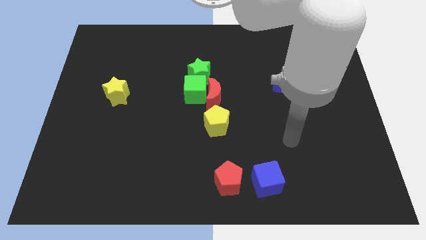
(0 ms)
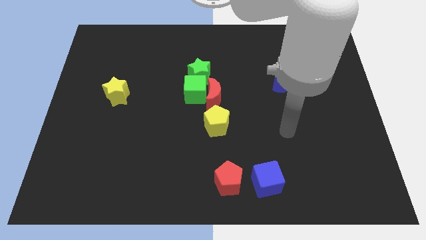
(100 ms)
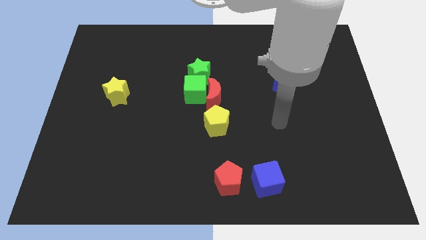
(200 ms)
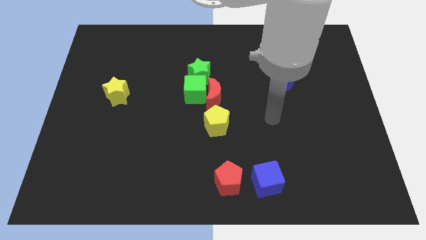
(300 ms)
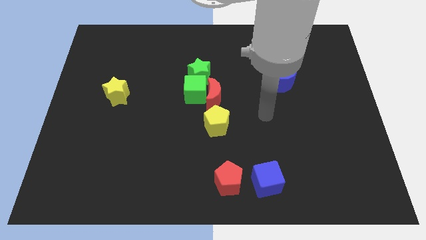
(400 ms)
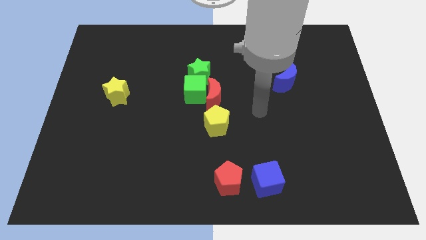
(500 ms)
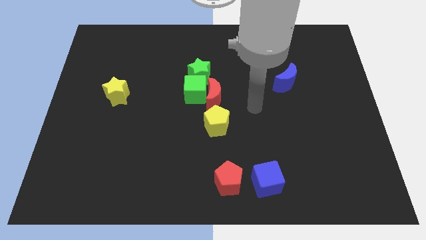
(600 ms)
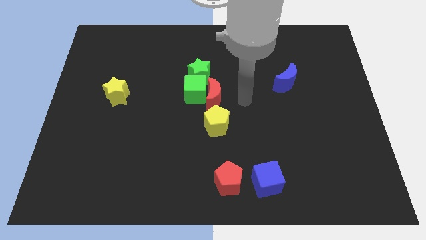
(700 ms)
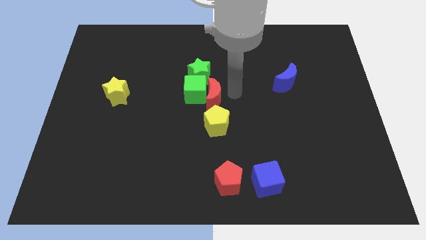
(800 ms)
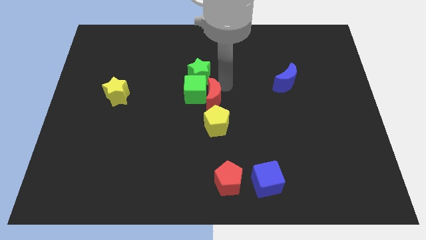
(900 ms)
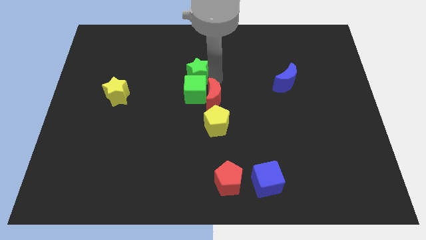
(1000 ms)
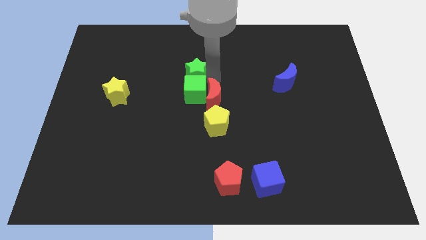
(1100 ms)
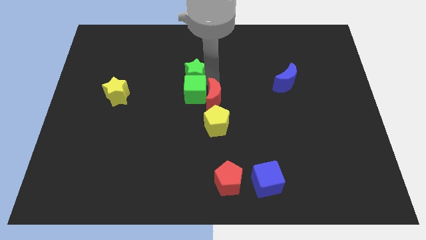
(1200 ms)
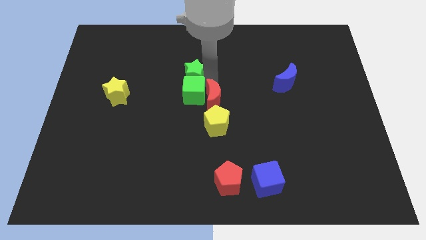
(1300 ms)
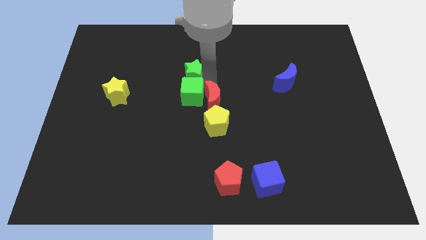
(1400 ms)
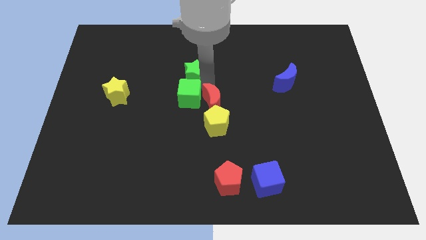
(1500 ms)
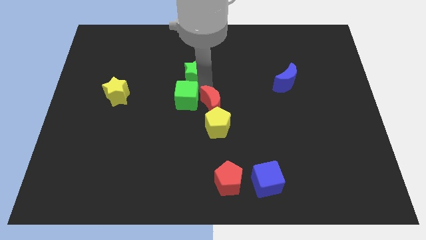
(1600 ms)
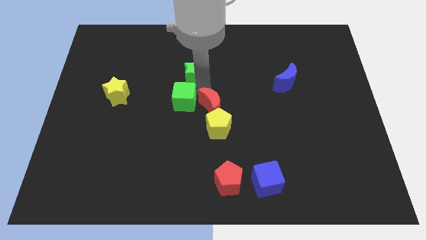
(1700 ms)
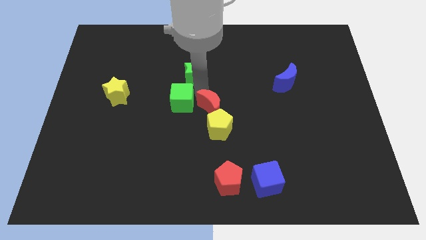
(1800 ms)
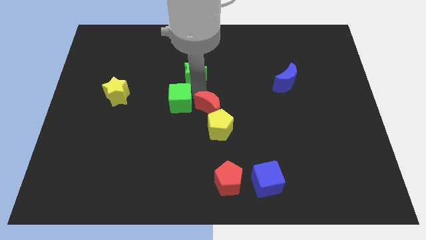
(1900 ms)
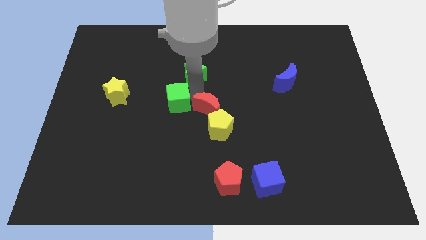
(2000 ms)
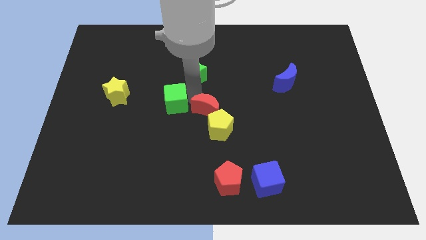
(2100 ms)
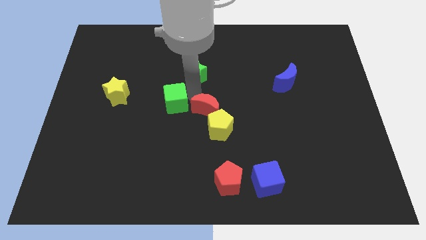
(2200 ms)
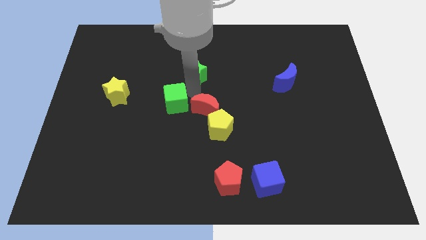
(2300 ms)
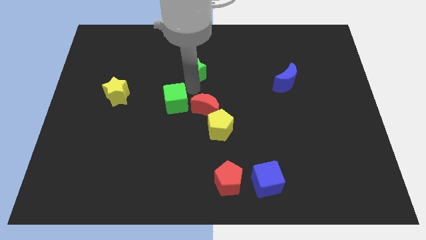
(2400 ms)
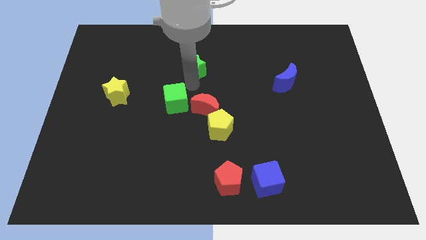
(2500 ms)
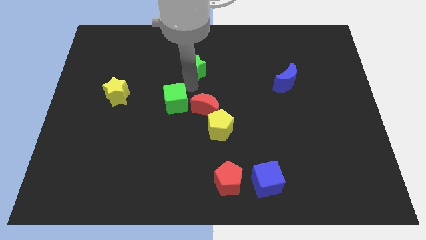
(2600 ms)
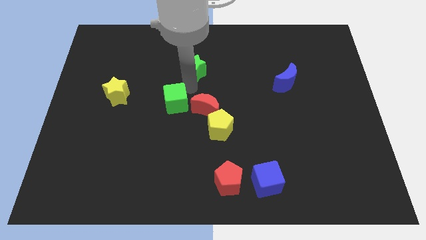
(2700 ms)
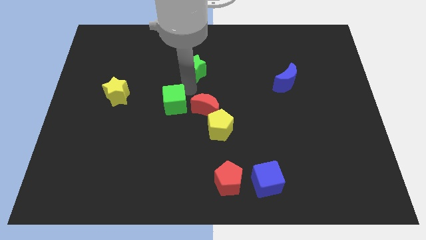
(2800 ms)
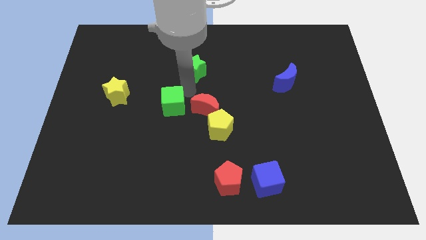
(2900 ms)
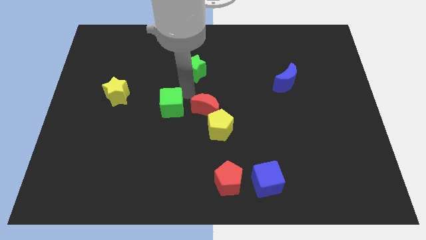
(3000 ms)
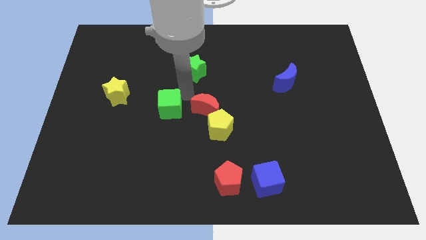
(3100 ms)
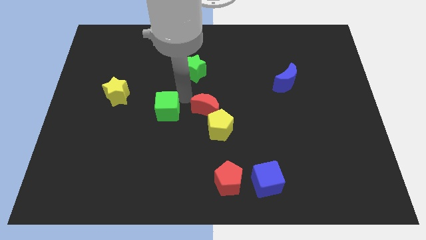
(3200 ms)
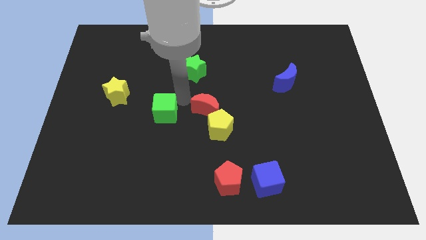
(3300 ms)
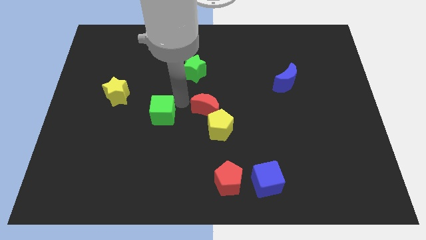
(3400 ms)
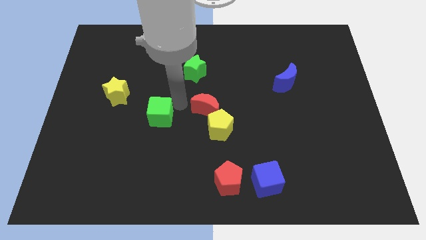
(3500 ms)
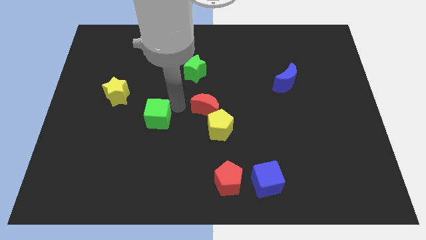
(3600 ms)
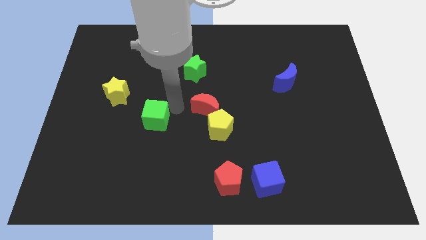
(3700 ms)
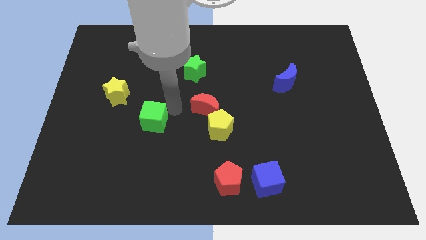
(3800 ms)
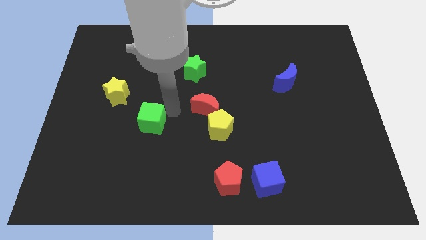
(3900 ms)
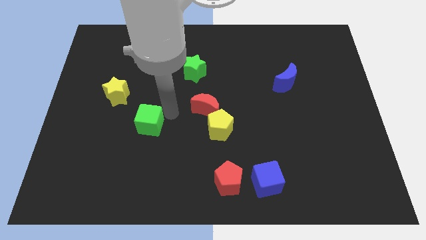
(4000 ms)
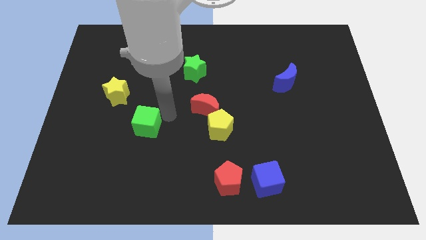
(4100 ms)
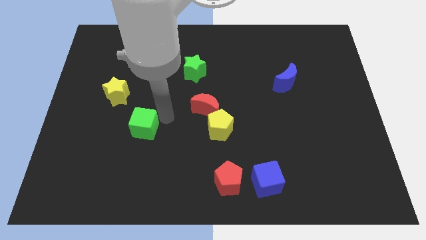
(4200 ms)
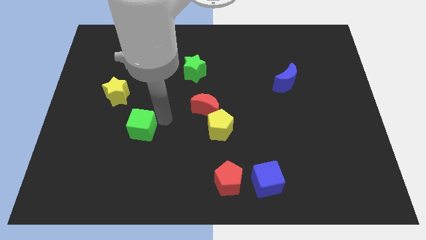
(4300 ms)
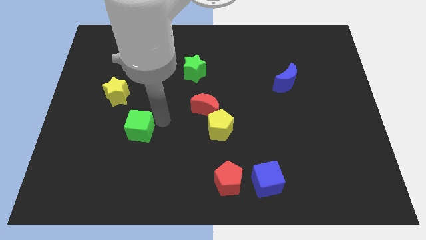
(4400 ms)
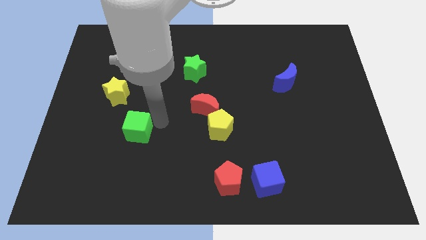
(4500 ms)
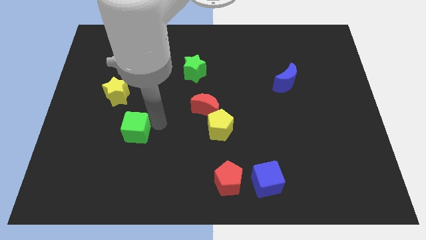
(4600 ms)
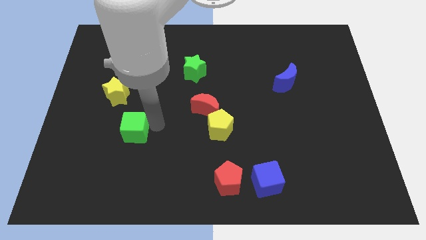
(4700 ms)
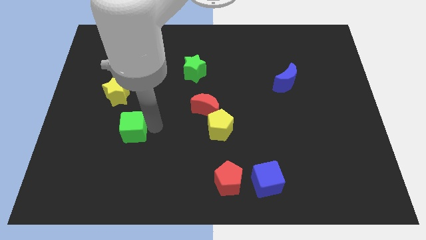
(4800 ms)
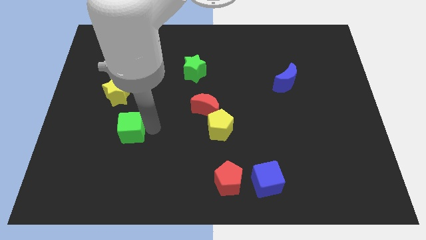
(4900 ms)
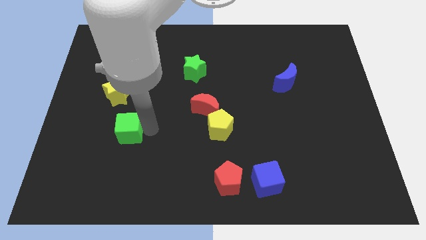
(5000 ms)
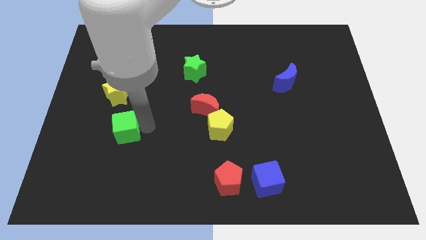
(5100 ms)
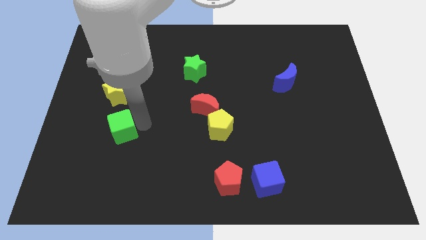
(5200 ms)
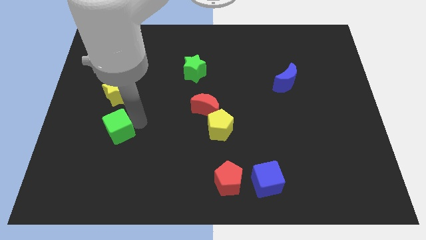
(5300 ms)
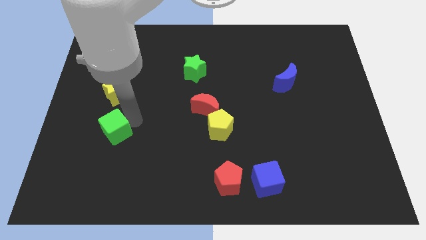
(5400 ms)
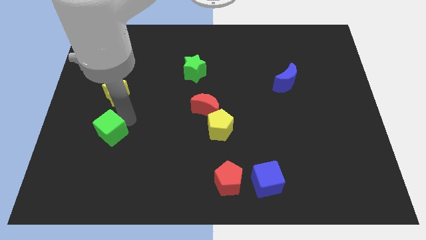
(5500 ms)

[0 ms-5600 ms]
move the green cube downwards and left diagonally

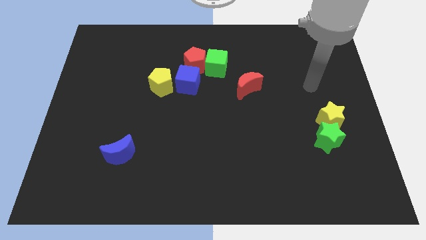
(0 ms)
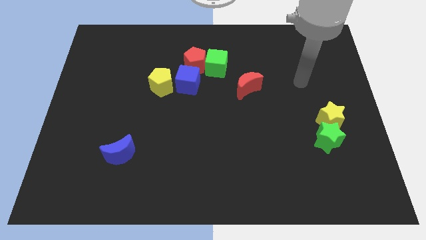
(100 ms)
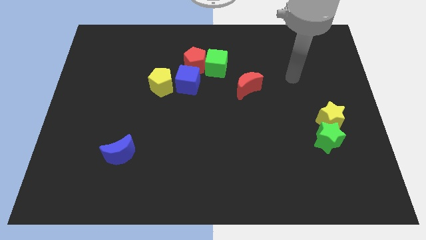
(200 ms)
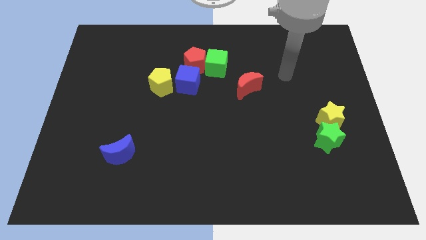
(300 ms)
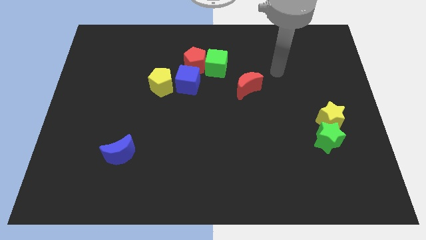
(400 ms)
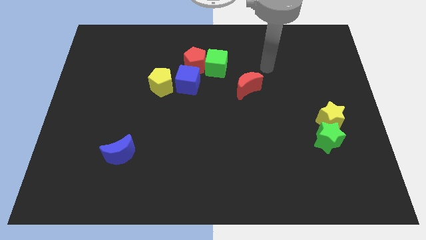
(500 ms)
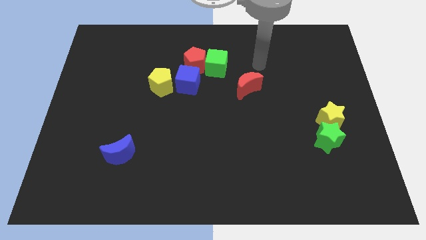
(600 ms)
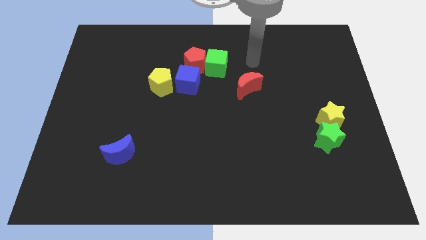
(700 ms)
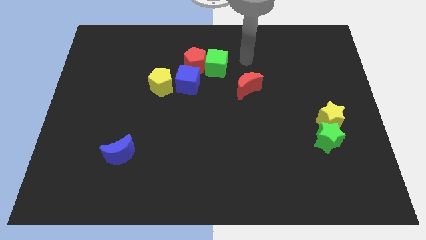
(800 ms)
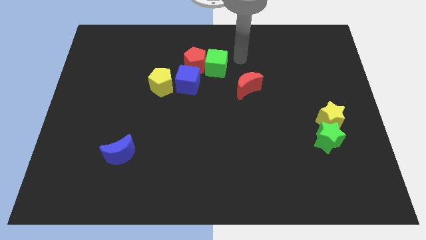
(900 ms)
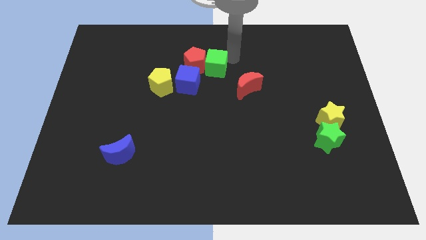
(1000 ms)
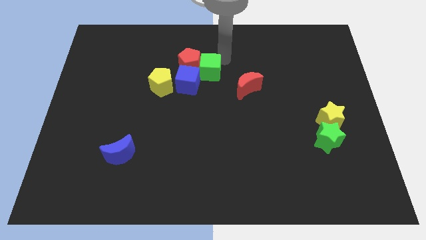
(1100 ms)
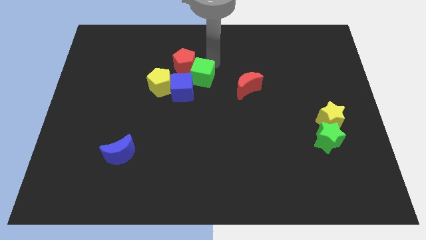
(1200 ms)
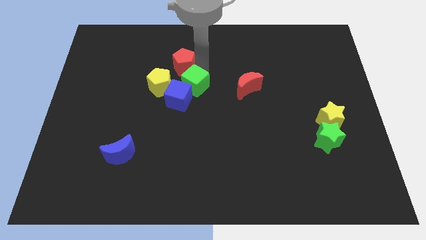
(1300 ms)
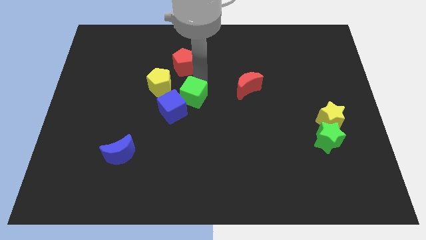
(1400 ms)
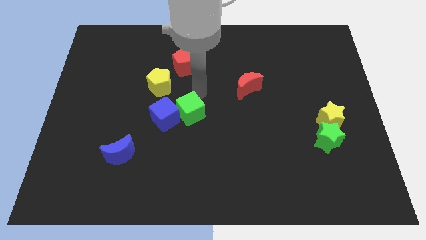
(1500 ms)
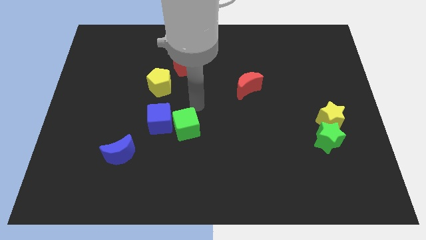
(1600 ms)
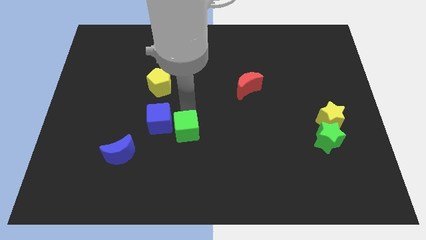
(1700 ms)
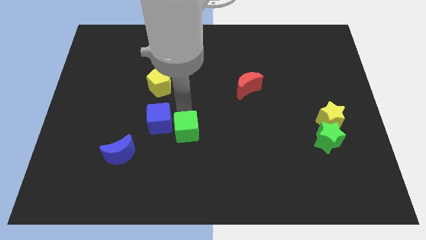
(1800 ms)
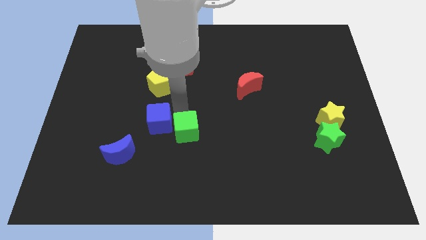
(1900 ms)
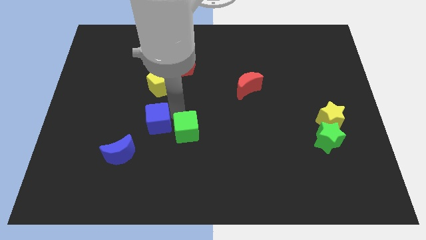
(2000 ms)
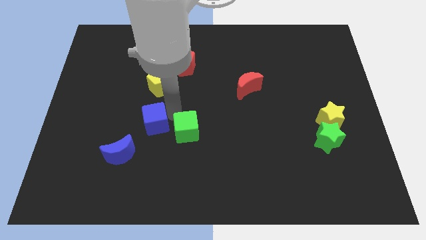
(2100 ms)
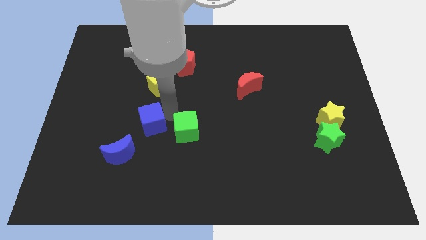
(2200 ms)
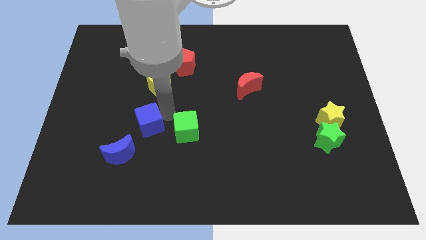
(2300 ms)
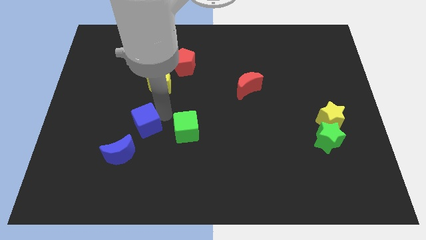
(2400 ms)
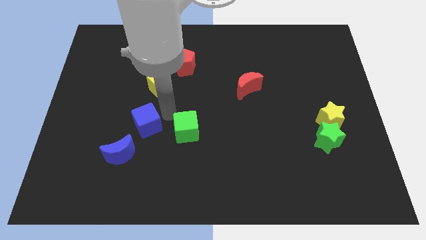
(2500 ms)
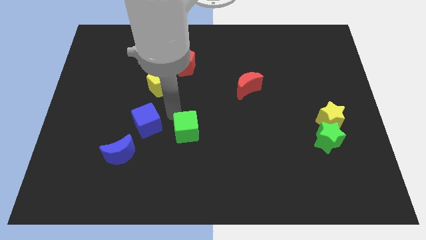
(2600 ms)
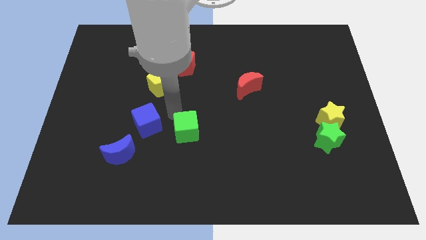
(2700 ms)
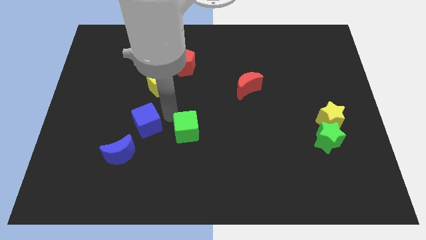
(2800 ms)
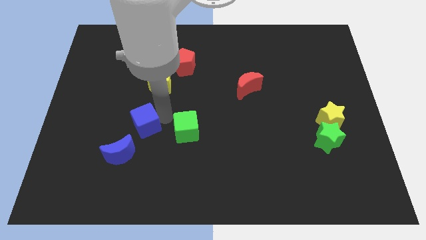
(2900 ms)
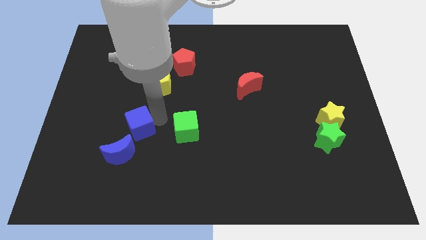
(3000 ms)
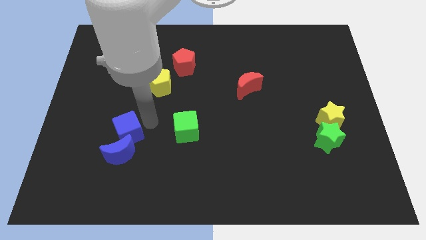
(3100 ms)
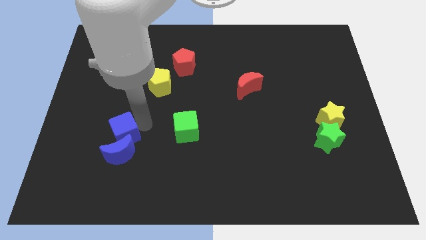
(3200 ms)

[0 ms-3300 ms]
move the blue cube down and to the left diagonally
